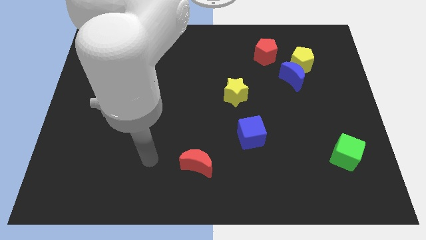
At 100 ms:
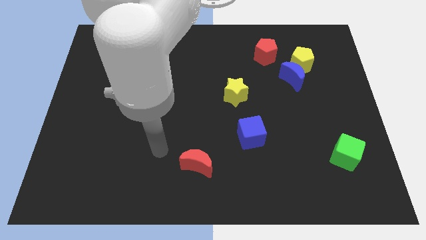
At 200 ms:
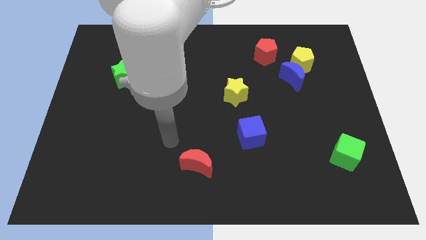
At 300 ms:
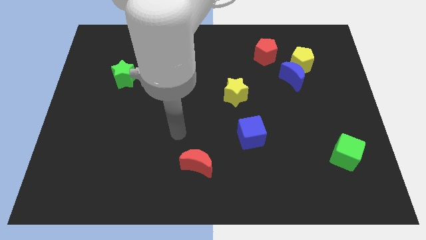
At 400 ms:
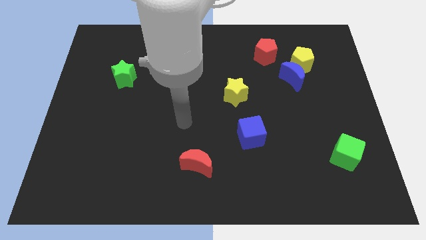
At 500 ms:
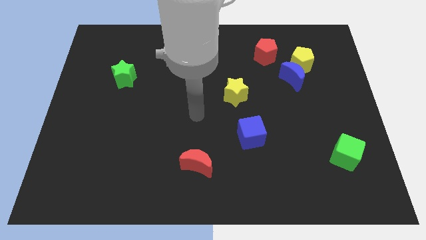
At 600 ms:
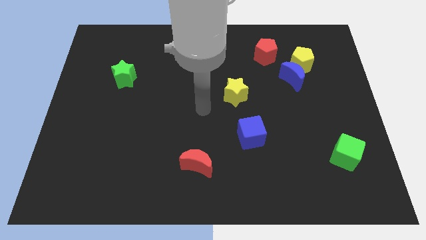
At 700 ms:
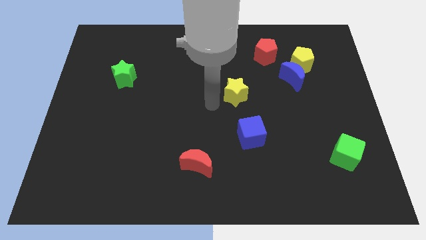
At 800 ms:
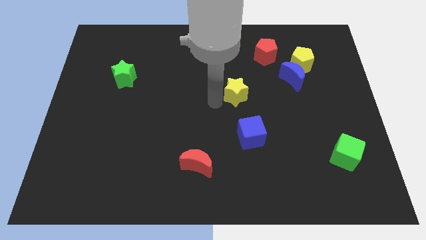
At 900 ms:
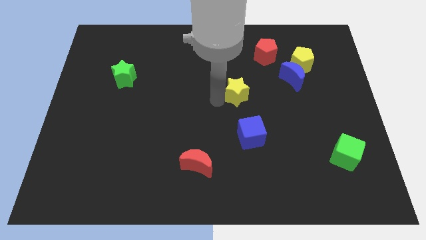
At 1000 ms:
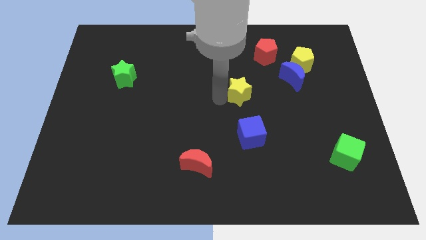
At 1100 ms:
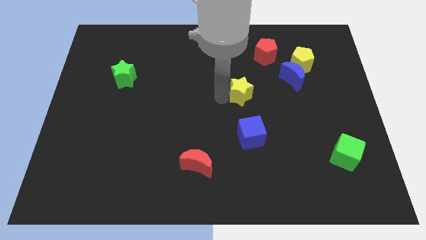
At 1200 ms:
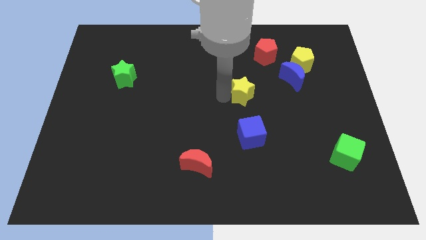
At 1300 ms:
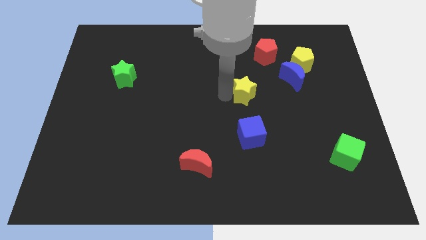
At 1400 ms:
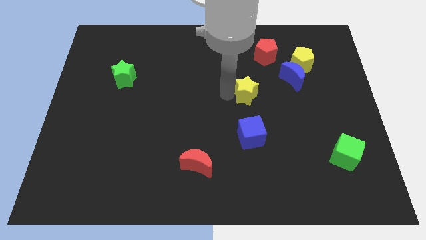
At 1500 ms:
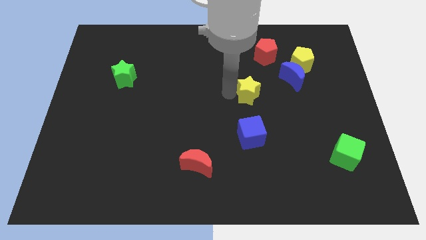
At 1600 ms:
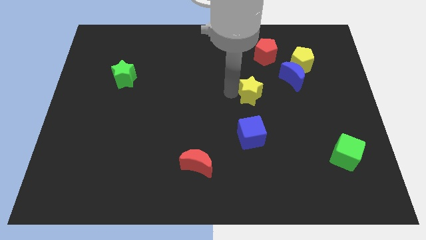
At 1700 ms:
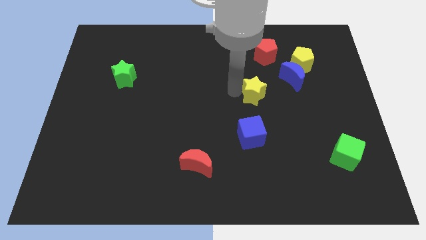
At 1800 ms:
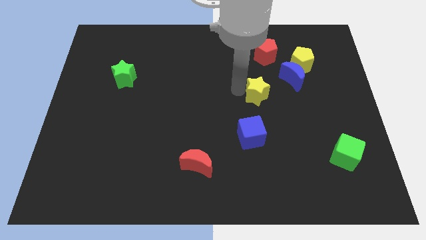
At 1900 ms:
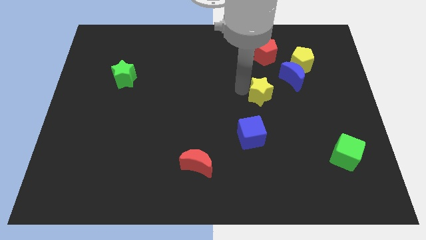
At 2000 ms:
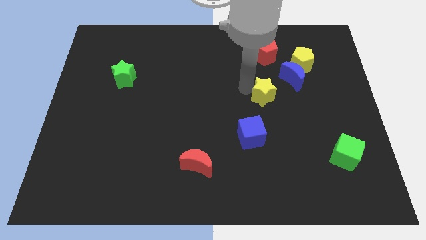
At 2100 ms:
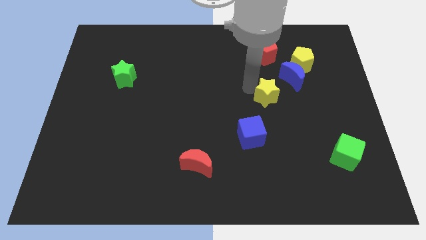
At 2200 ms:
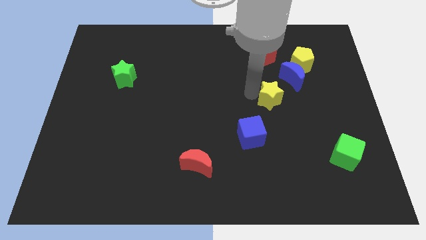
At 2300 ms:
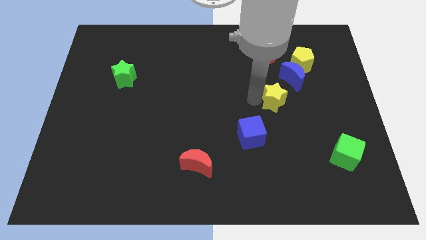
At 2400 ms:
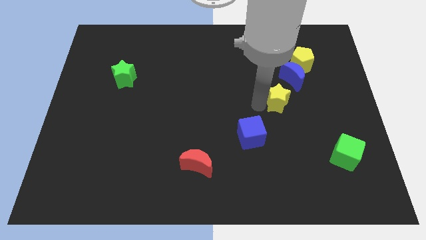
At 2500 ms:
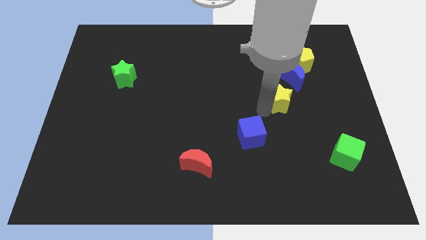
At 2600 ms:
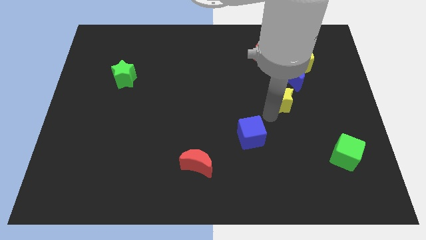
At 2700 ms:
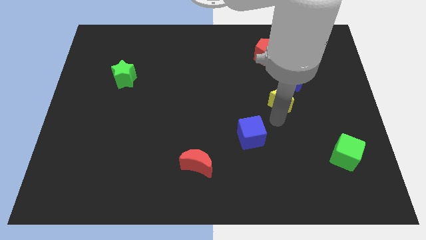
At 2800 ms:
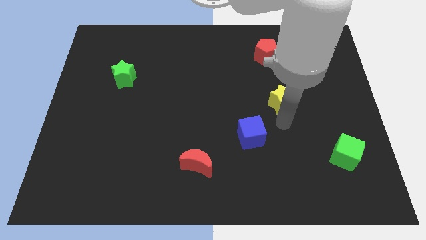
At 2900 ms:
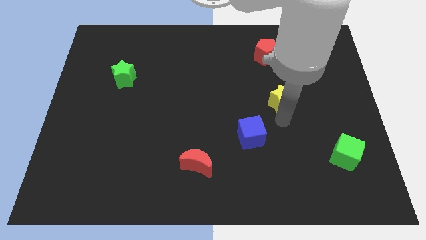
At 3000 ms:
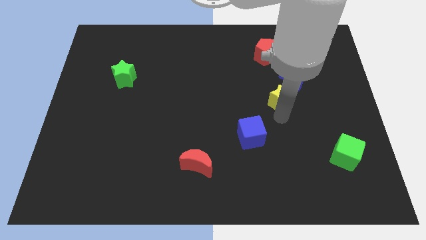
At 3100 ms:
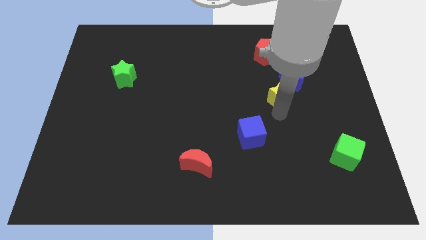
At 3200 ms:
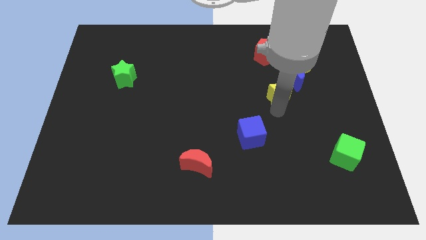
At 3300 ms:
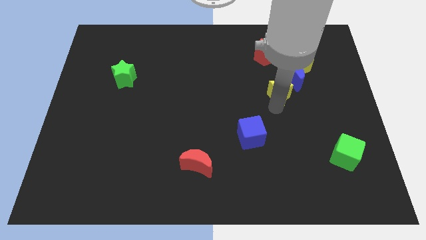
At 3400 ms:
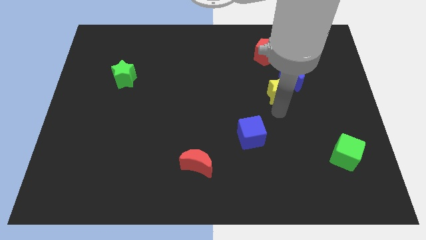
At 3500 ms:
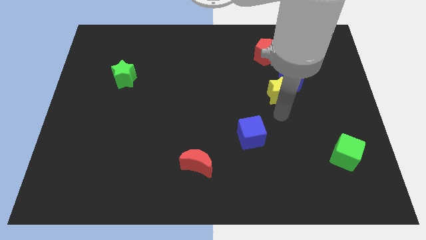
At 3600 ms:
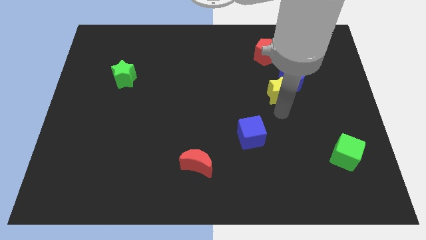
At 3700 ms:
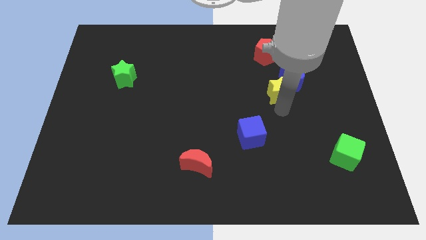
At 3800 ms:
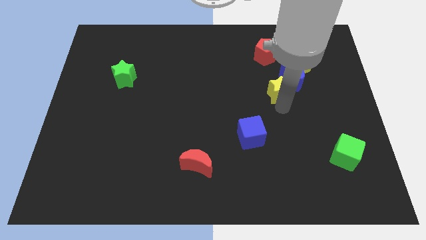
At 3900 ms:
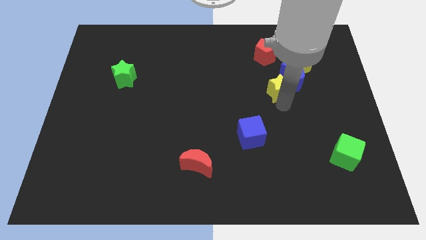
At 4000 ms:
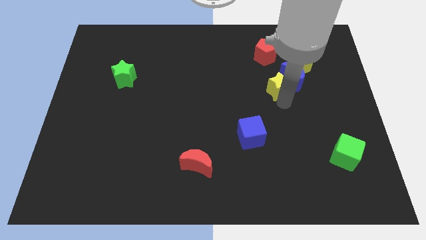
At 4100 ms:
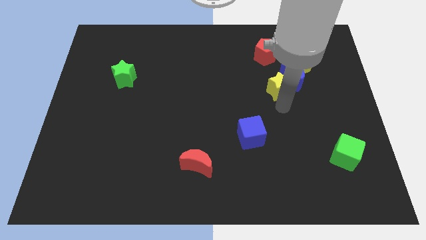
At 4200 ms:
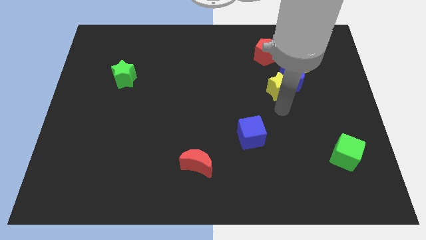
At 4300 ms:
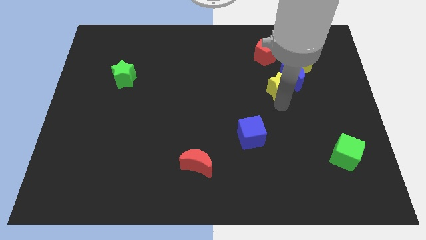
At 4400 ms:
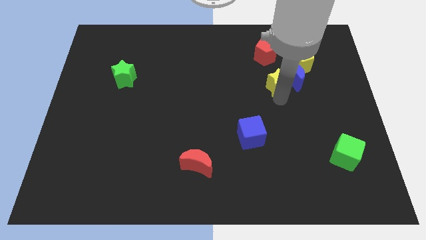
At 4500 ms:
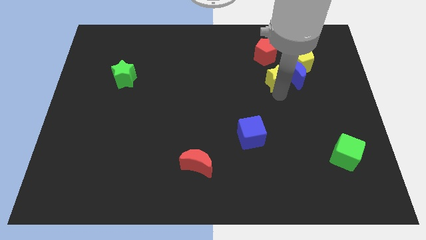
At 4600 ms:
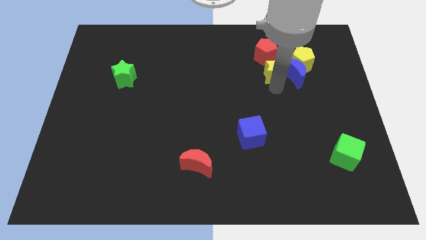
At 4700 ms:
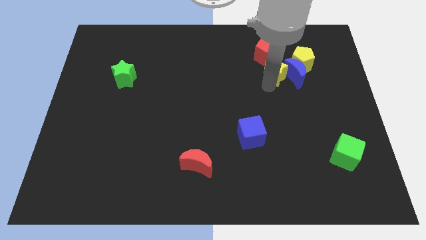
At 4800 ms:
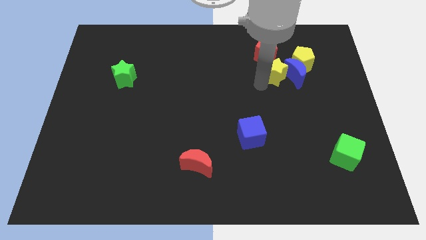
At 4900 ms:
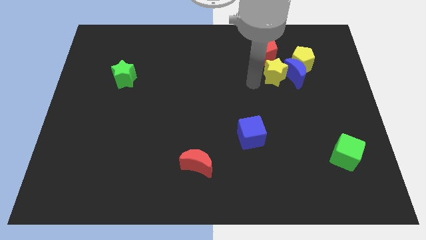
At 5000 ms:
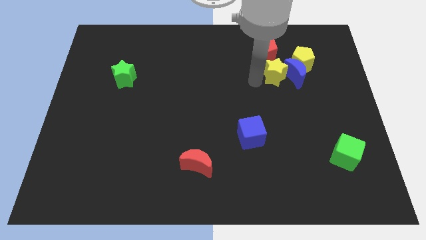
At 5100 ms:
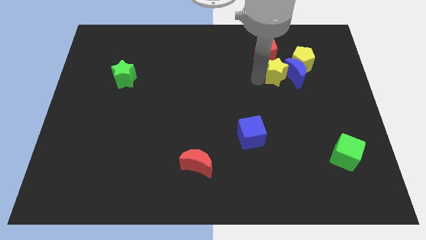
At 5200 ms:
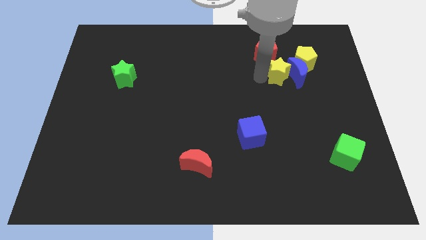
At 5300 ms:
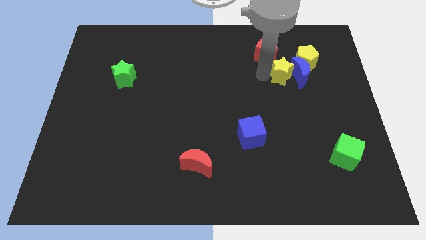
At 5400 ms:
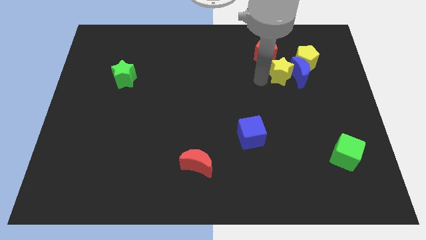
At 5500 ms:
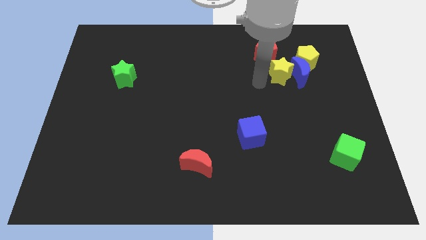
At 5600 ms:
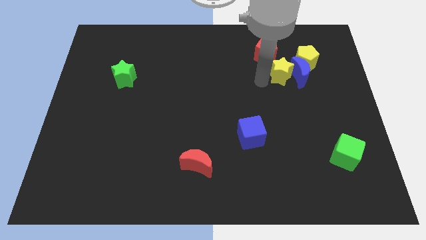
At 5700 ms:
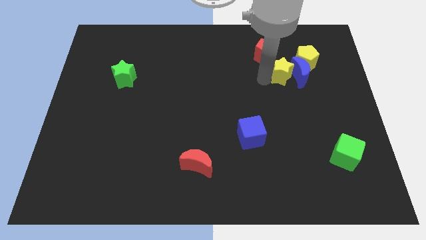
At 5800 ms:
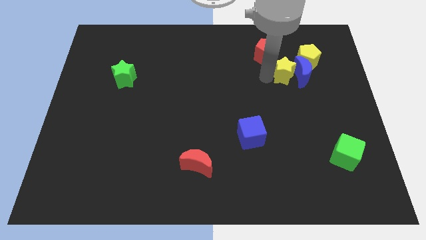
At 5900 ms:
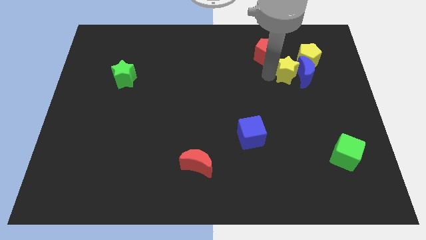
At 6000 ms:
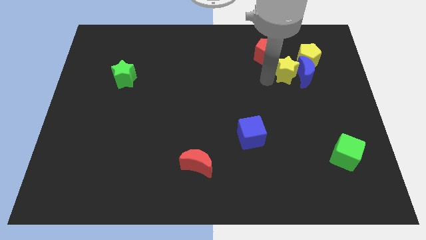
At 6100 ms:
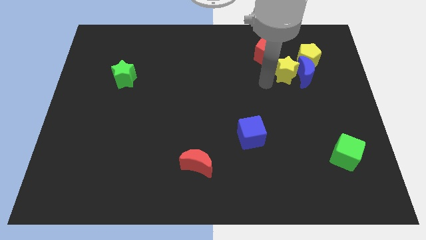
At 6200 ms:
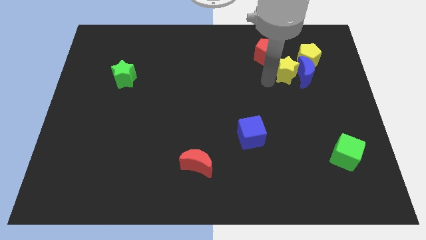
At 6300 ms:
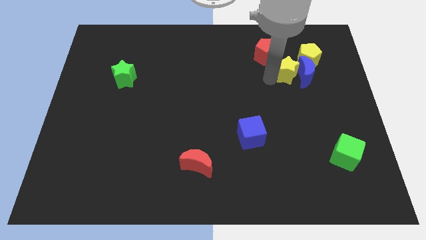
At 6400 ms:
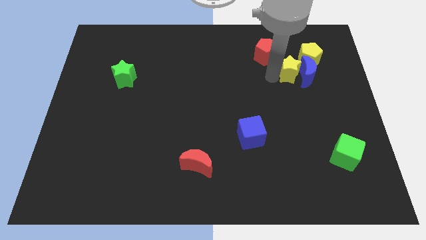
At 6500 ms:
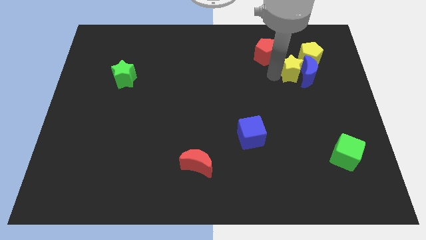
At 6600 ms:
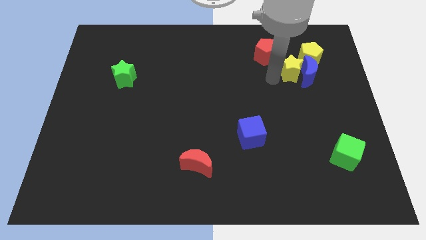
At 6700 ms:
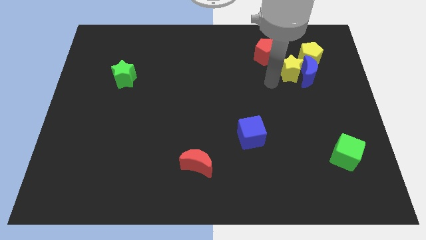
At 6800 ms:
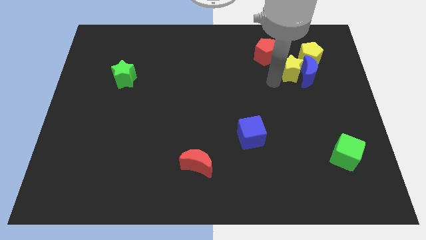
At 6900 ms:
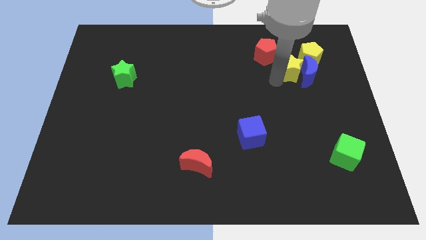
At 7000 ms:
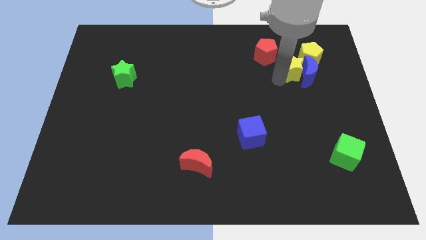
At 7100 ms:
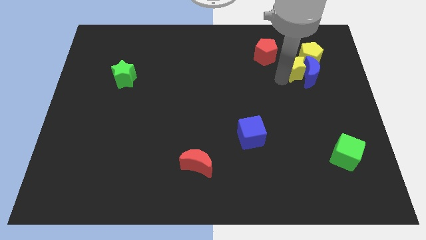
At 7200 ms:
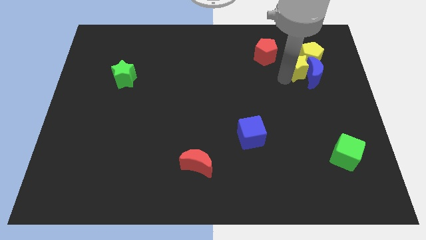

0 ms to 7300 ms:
slide the yellow star close to the yellow pentagon
